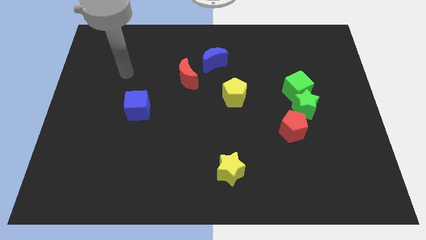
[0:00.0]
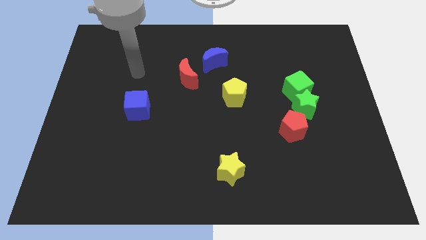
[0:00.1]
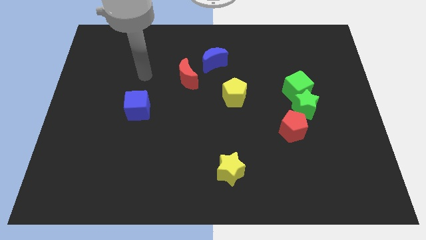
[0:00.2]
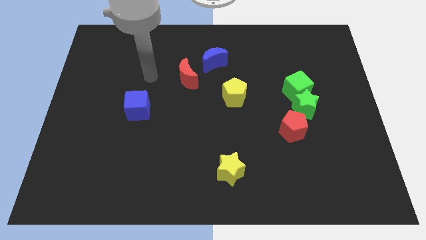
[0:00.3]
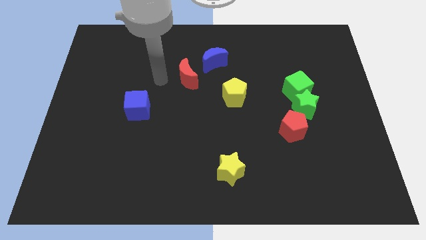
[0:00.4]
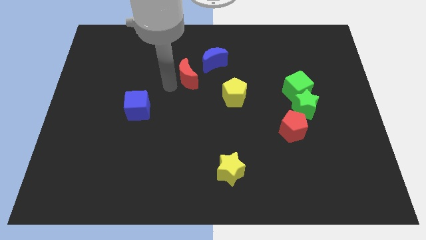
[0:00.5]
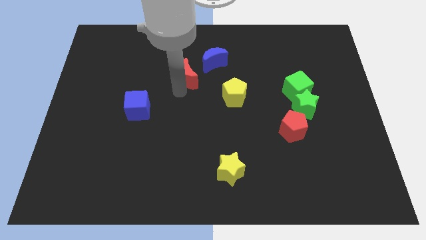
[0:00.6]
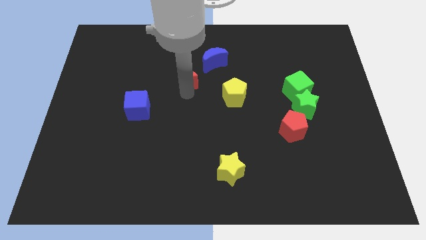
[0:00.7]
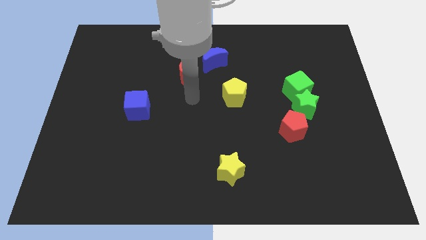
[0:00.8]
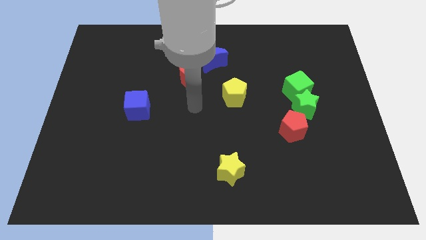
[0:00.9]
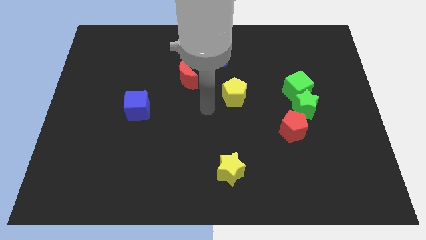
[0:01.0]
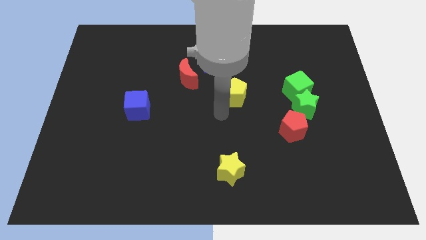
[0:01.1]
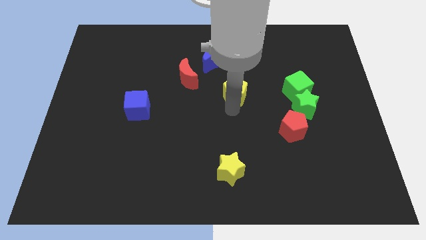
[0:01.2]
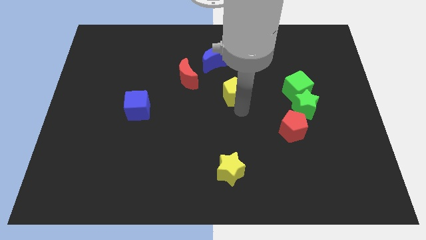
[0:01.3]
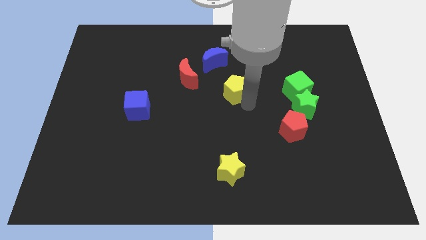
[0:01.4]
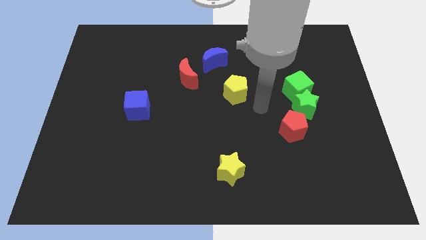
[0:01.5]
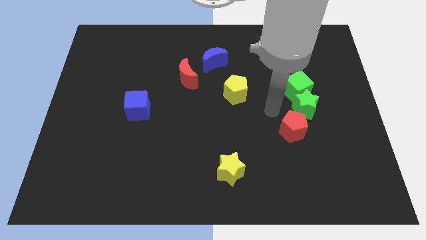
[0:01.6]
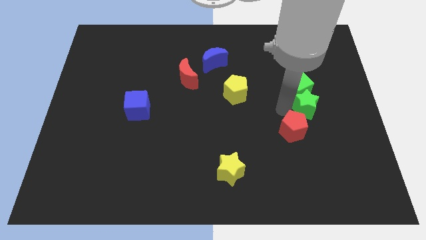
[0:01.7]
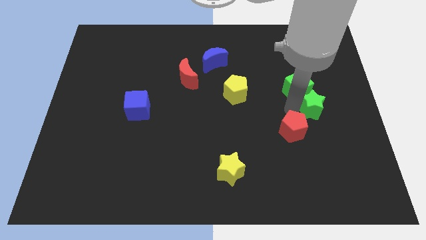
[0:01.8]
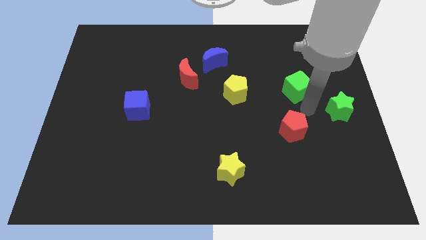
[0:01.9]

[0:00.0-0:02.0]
move the green cube away from the green star

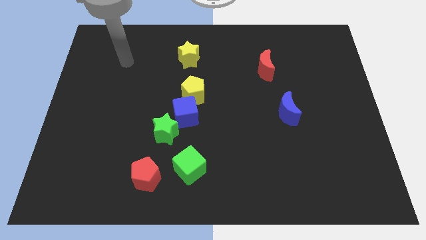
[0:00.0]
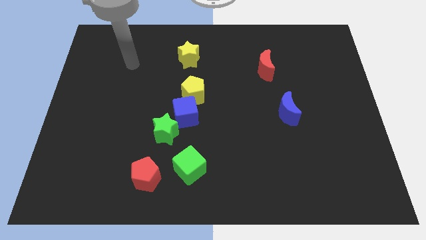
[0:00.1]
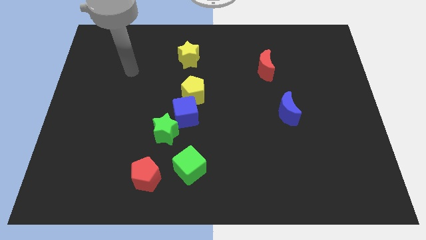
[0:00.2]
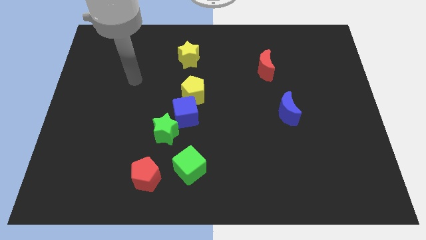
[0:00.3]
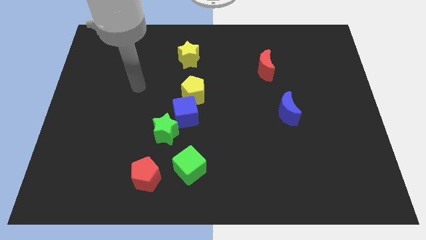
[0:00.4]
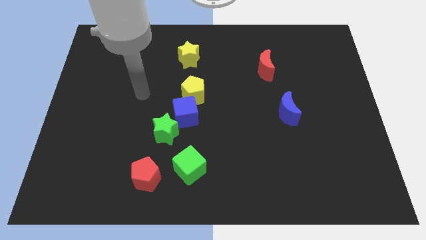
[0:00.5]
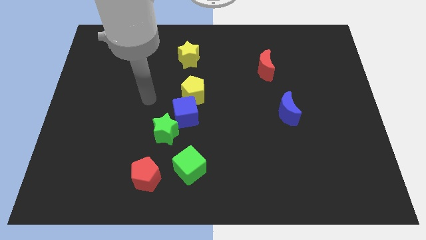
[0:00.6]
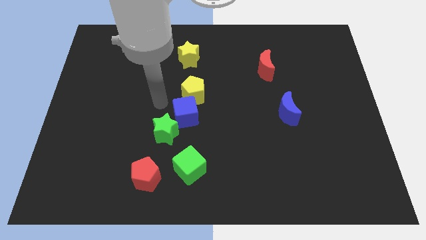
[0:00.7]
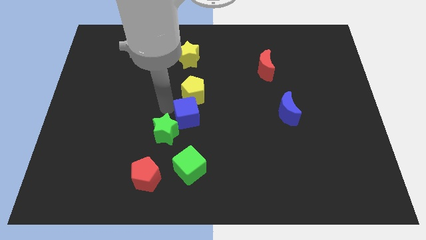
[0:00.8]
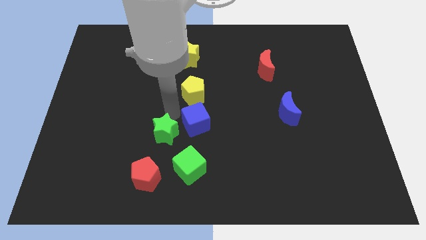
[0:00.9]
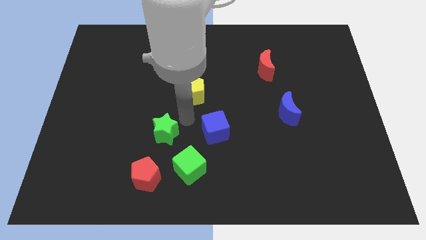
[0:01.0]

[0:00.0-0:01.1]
pull the green star apart from the blue cube

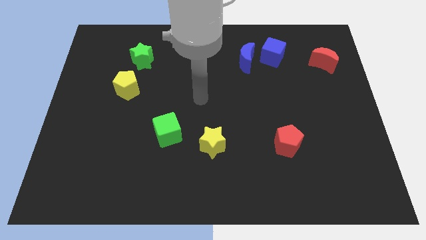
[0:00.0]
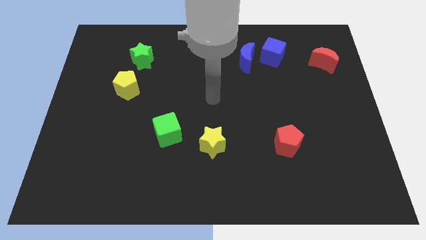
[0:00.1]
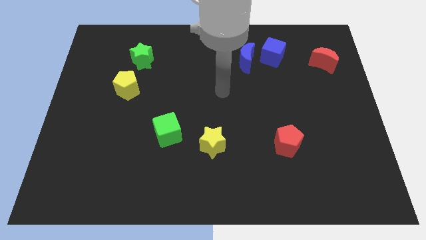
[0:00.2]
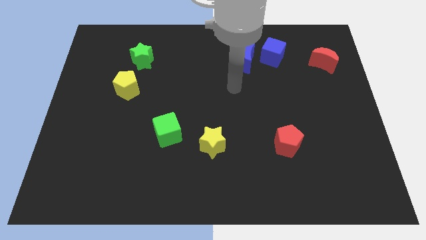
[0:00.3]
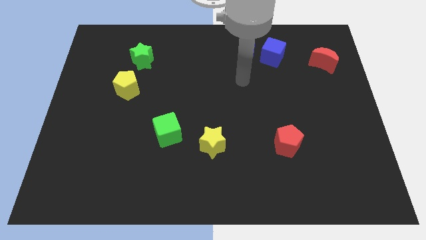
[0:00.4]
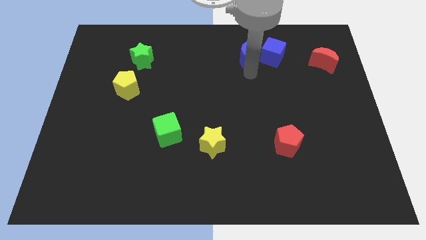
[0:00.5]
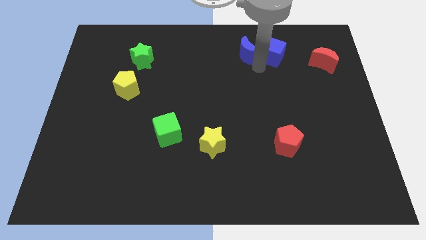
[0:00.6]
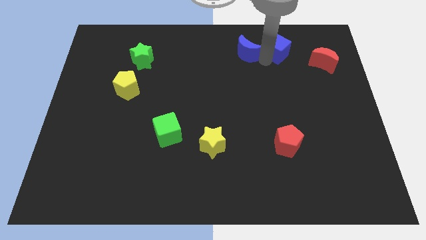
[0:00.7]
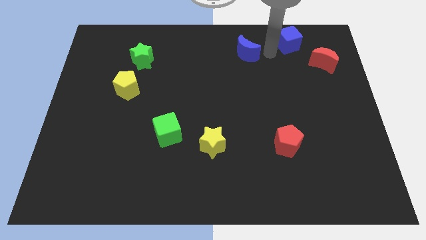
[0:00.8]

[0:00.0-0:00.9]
separate the blue moon from the blue cube

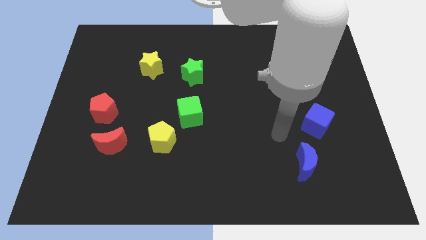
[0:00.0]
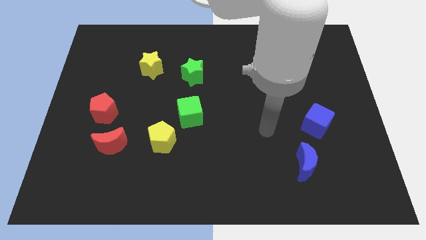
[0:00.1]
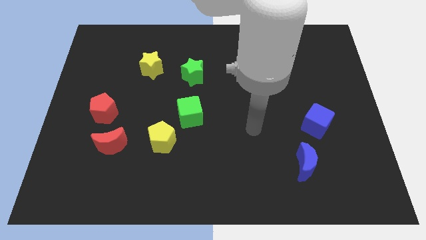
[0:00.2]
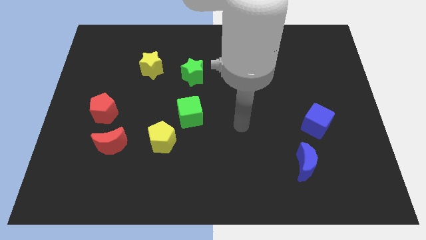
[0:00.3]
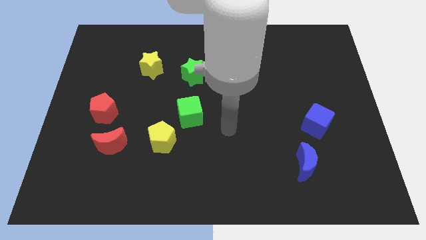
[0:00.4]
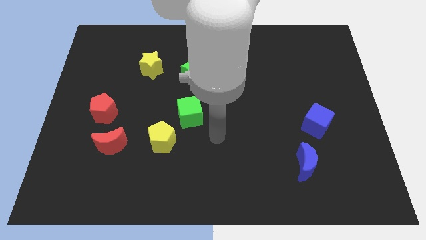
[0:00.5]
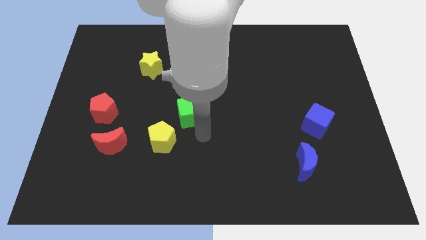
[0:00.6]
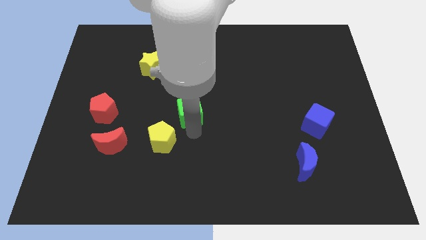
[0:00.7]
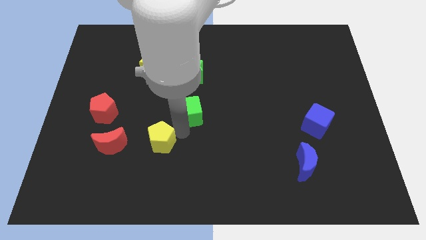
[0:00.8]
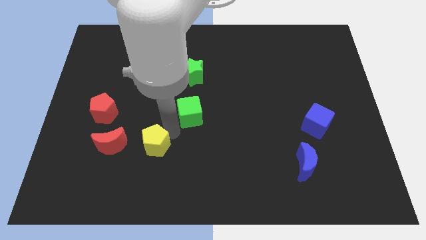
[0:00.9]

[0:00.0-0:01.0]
separate the green cube from the yellow pentagon

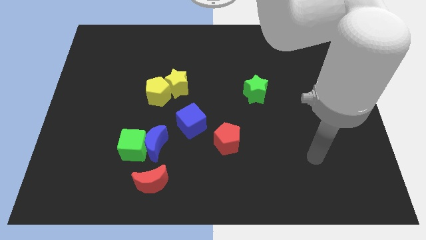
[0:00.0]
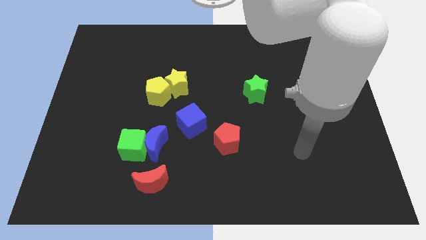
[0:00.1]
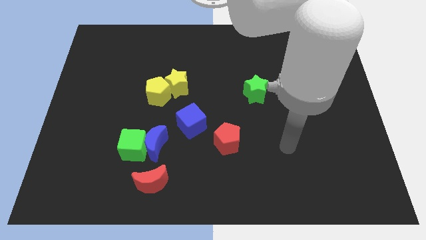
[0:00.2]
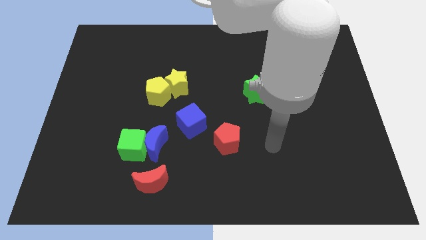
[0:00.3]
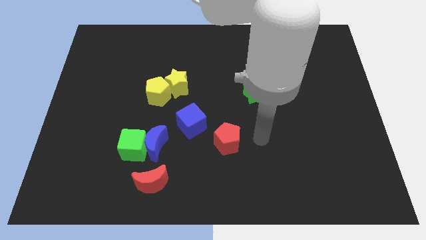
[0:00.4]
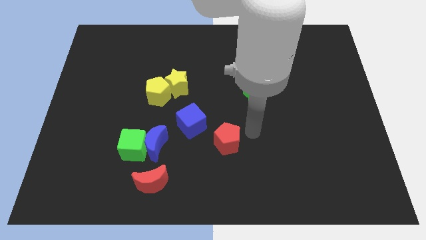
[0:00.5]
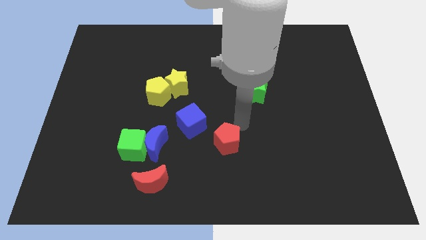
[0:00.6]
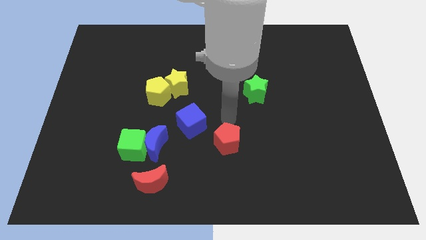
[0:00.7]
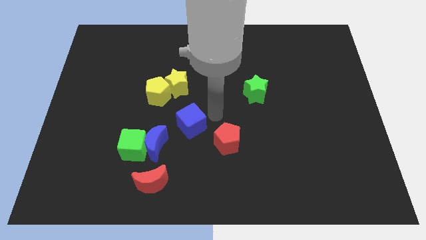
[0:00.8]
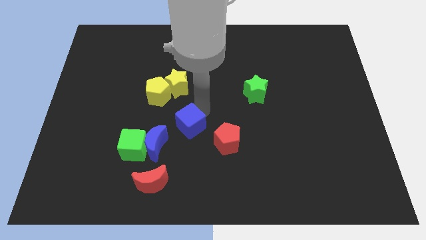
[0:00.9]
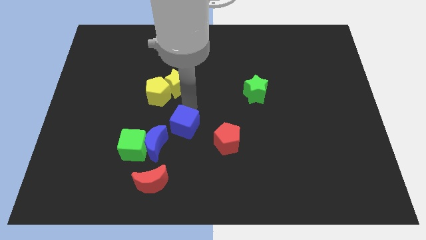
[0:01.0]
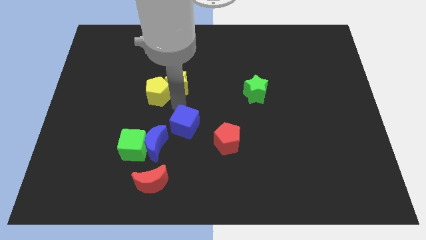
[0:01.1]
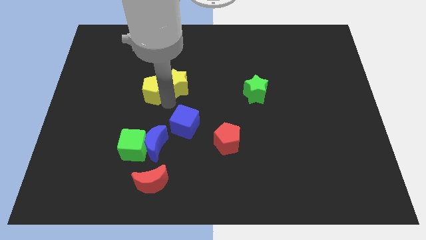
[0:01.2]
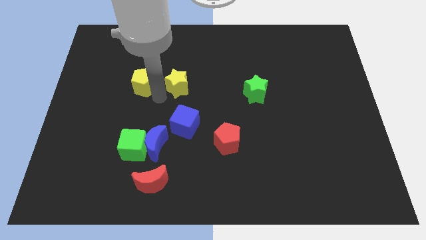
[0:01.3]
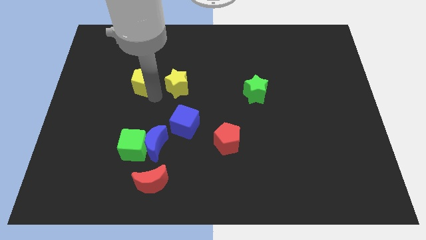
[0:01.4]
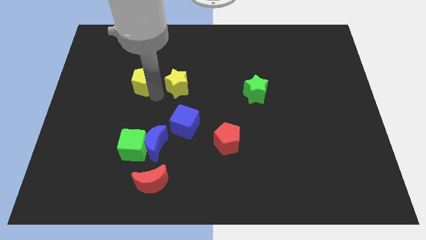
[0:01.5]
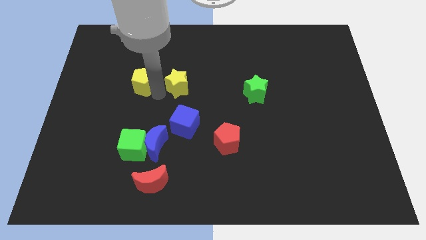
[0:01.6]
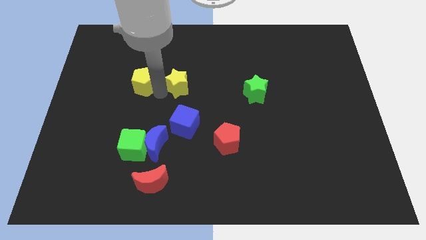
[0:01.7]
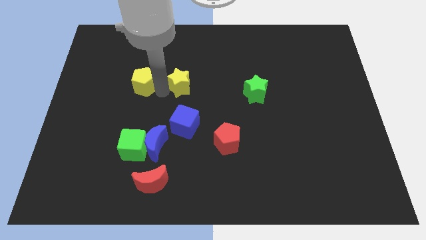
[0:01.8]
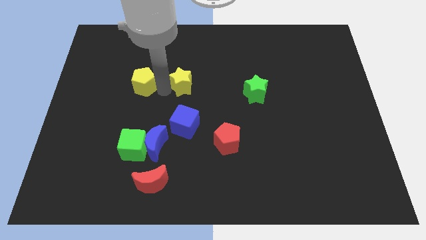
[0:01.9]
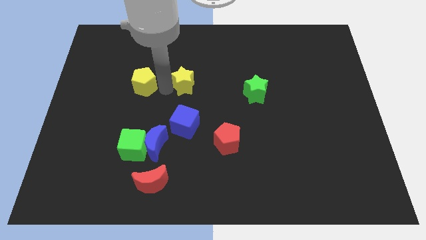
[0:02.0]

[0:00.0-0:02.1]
pull the yellow star apart from the yellow pentagon

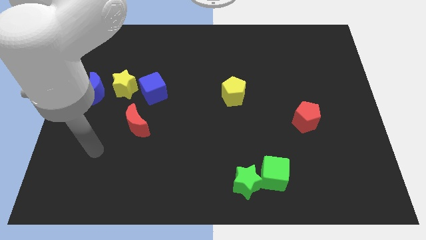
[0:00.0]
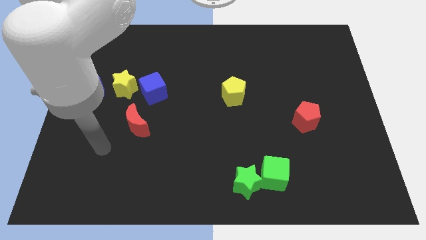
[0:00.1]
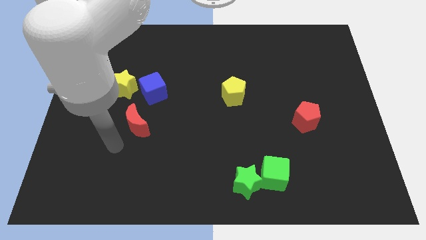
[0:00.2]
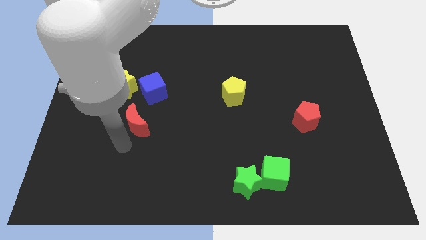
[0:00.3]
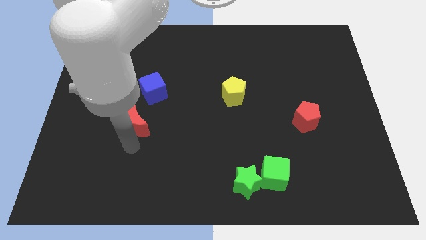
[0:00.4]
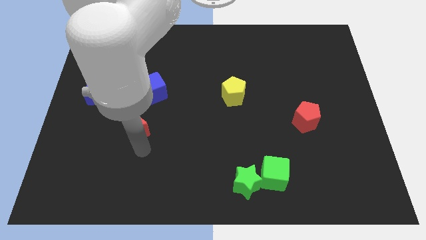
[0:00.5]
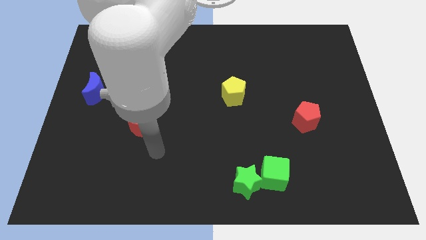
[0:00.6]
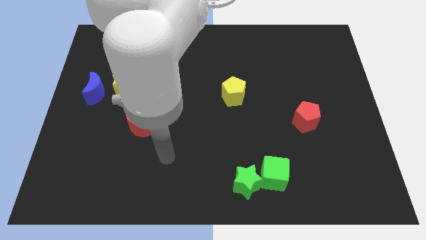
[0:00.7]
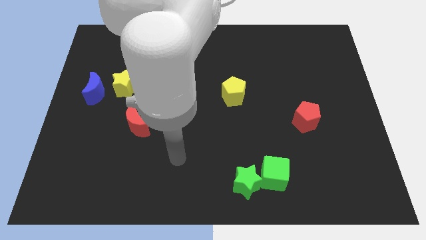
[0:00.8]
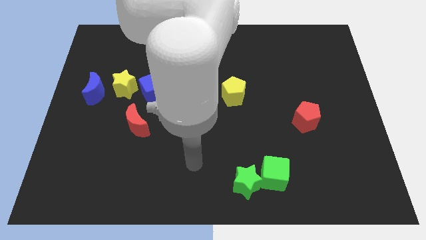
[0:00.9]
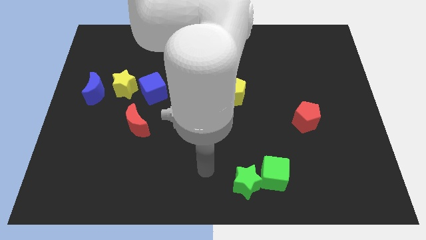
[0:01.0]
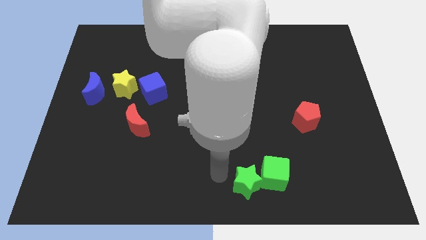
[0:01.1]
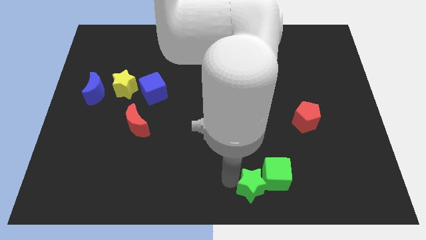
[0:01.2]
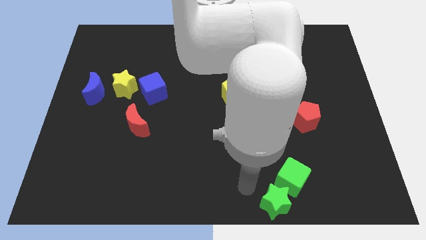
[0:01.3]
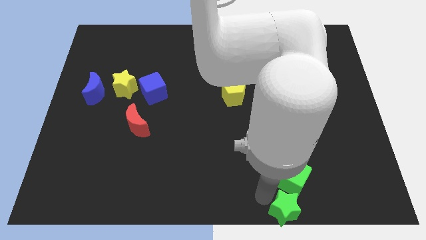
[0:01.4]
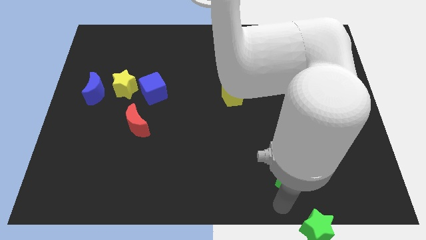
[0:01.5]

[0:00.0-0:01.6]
pull the green cube apart from the green star

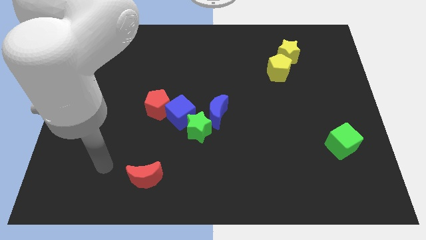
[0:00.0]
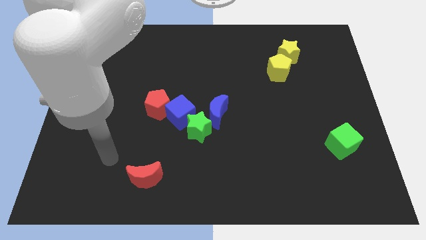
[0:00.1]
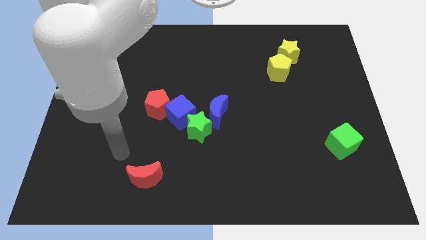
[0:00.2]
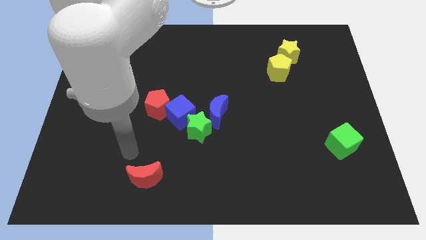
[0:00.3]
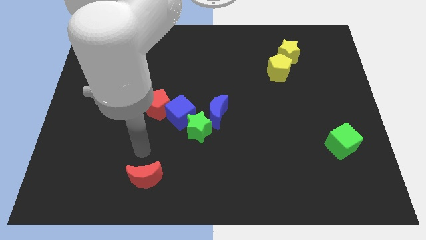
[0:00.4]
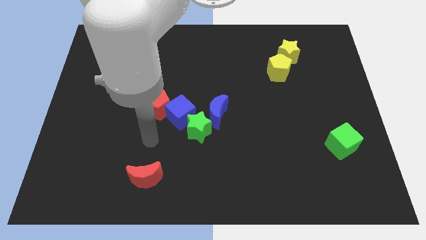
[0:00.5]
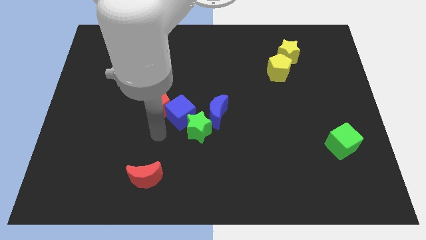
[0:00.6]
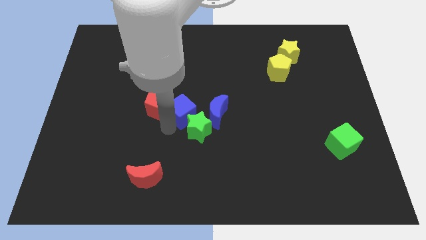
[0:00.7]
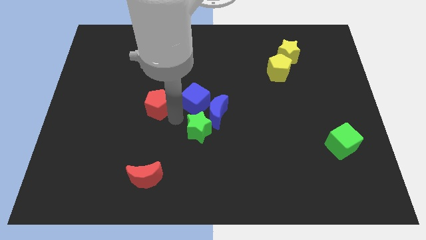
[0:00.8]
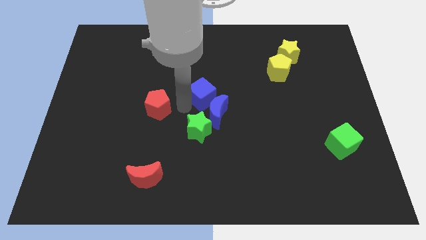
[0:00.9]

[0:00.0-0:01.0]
move the red pentagon away from the blue cube
